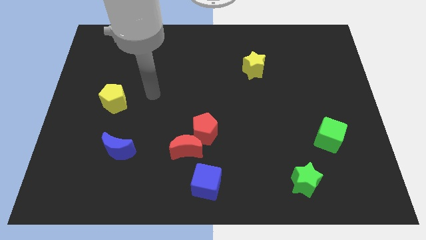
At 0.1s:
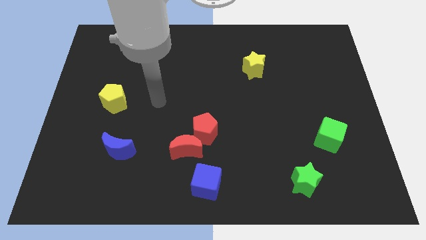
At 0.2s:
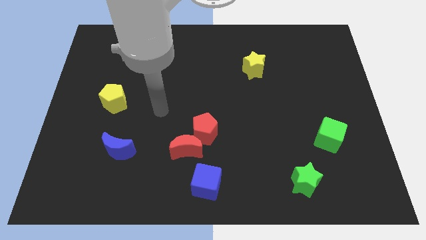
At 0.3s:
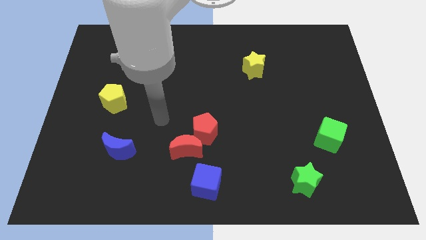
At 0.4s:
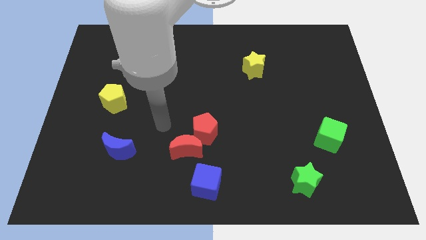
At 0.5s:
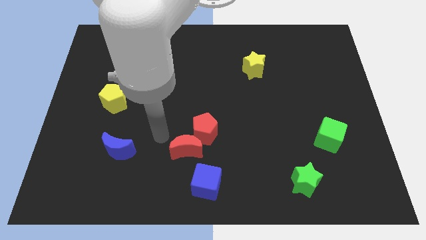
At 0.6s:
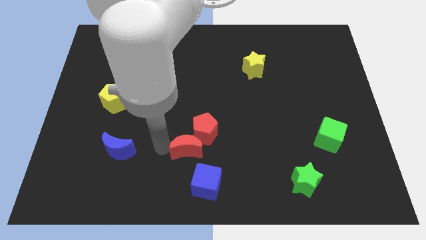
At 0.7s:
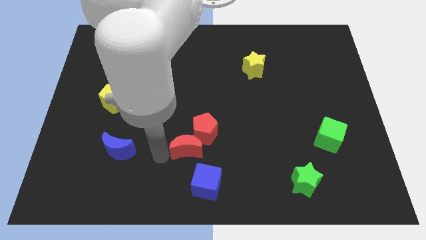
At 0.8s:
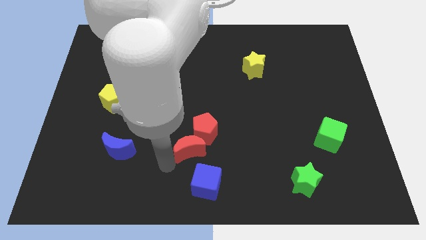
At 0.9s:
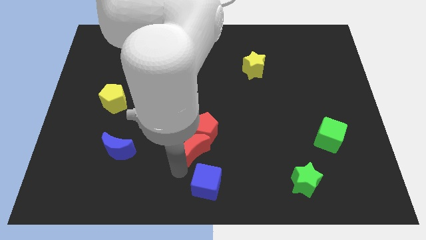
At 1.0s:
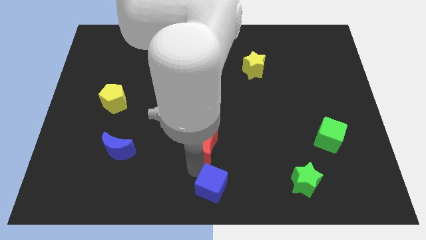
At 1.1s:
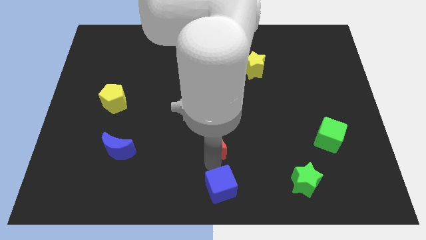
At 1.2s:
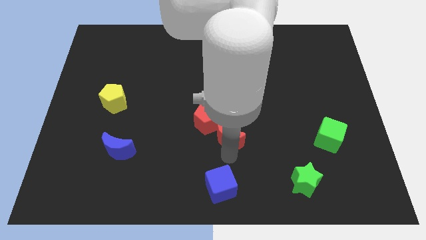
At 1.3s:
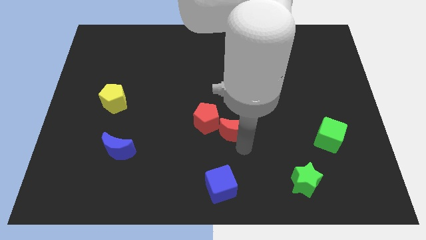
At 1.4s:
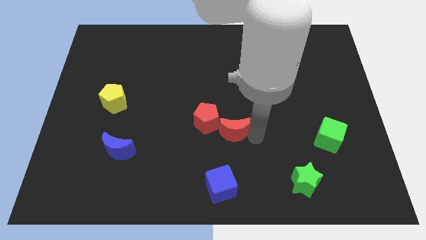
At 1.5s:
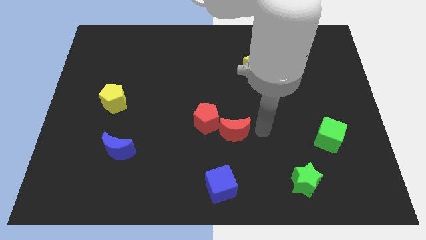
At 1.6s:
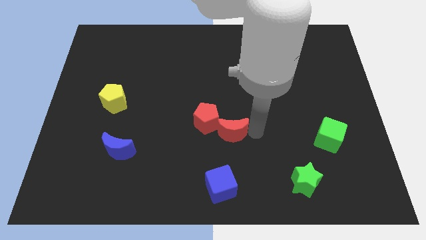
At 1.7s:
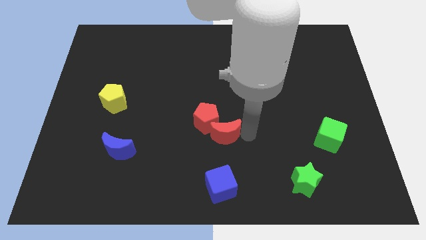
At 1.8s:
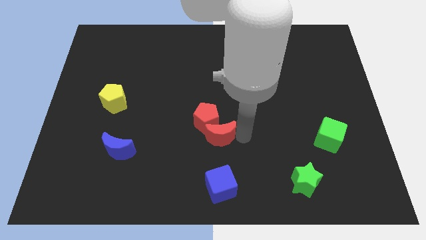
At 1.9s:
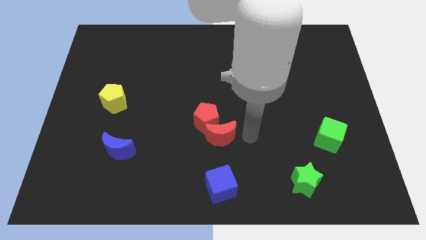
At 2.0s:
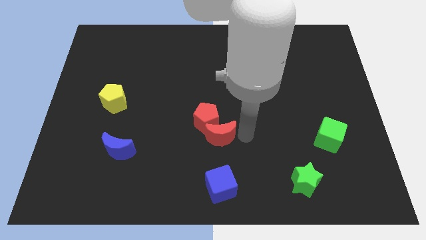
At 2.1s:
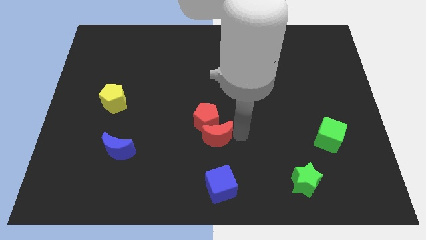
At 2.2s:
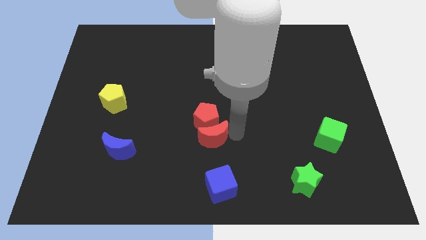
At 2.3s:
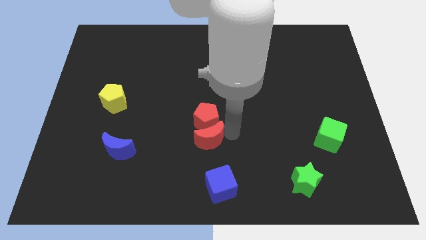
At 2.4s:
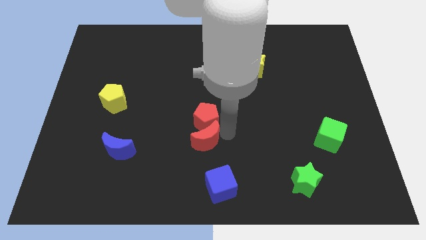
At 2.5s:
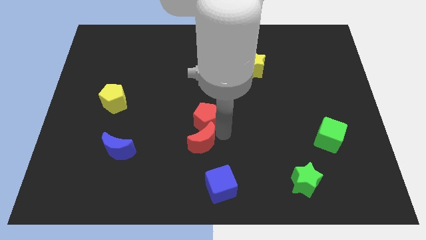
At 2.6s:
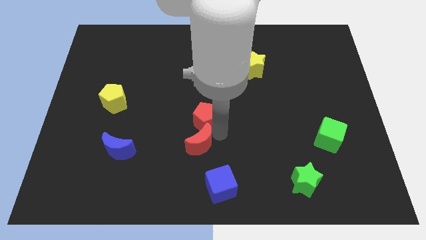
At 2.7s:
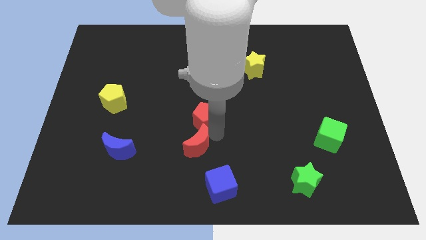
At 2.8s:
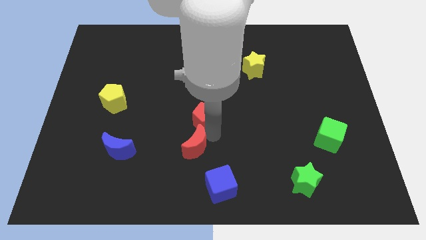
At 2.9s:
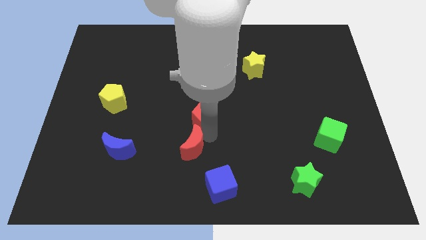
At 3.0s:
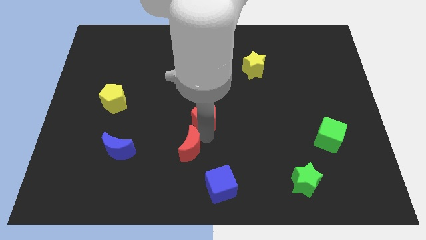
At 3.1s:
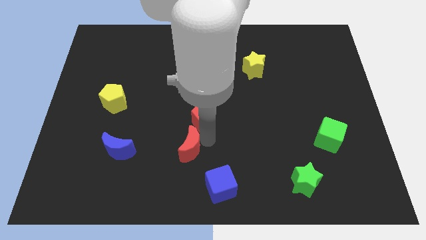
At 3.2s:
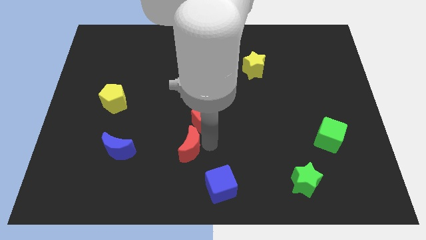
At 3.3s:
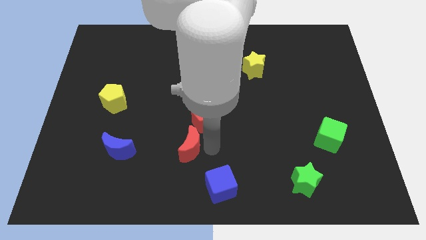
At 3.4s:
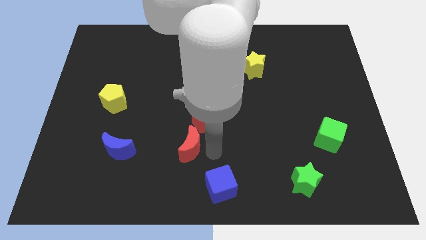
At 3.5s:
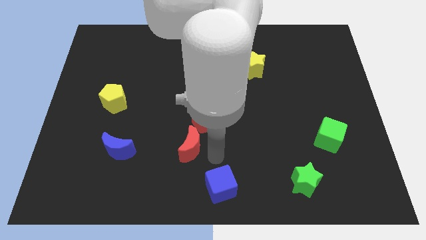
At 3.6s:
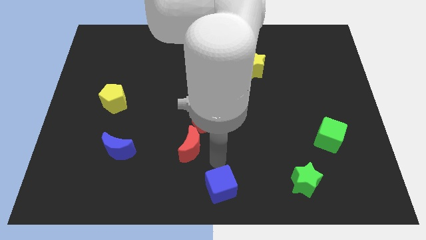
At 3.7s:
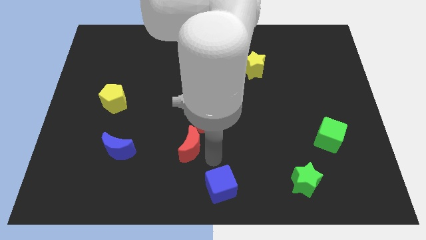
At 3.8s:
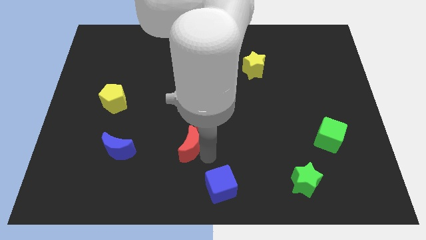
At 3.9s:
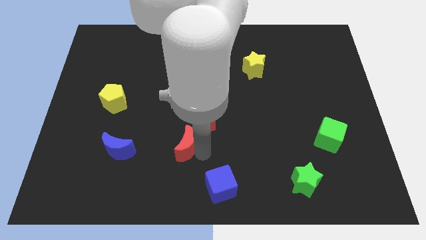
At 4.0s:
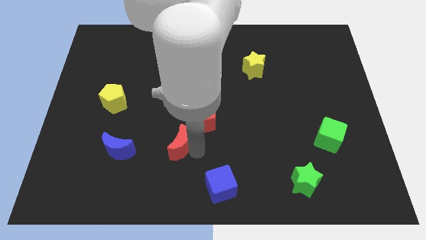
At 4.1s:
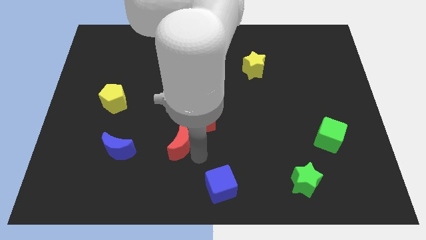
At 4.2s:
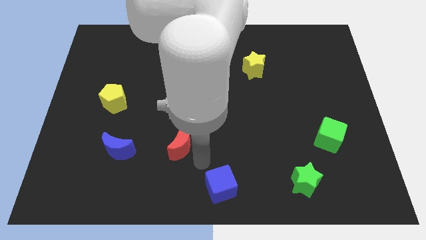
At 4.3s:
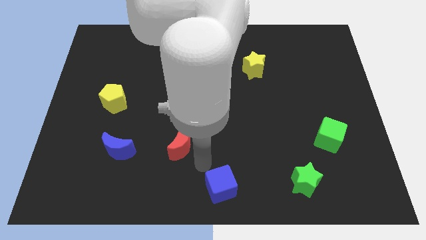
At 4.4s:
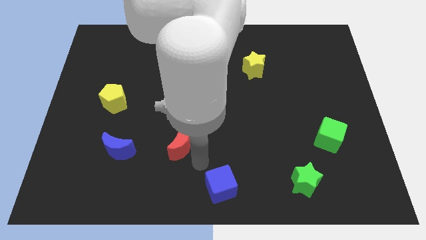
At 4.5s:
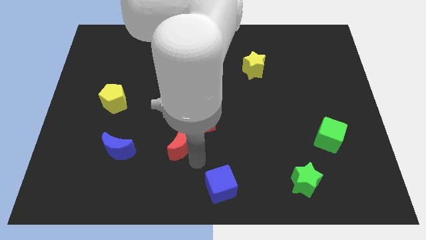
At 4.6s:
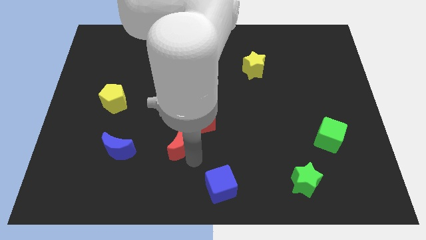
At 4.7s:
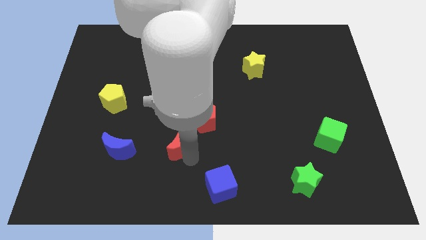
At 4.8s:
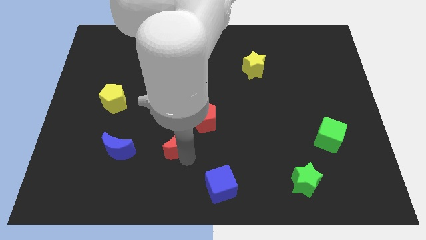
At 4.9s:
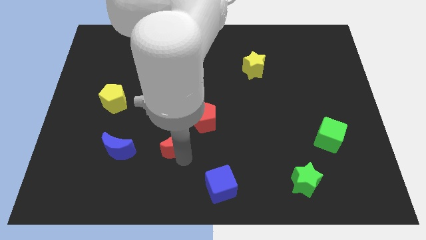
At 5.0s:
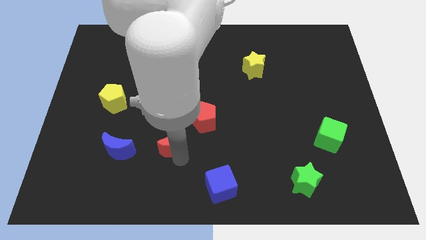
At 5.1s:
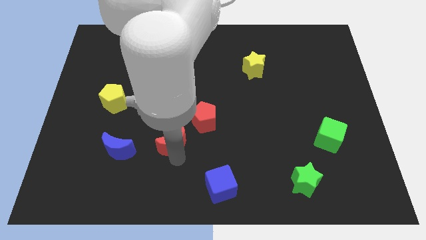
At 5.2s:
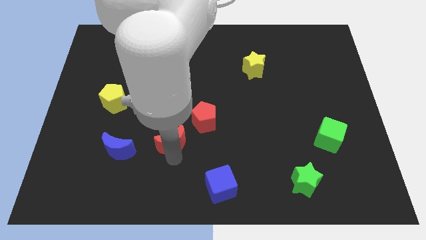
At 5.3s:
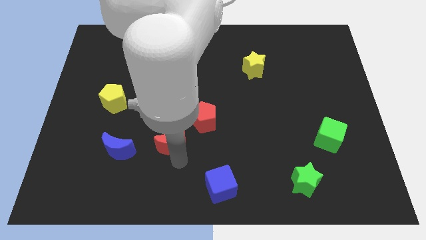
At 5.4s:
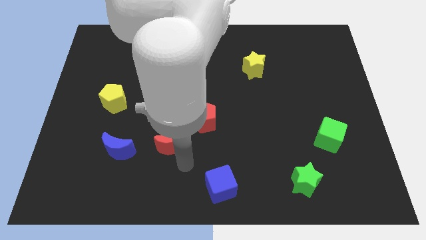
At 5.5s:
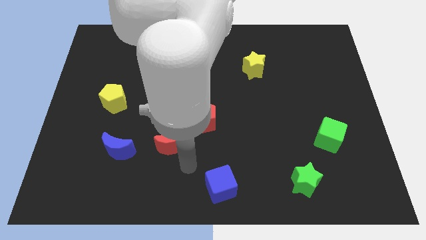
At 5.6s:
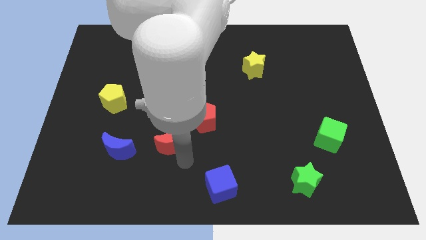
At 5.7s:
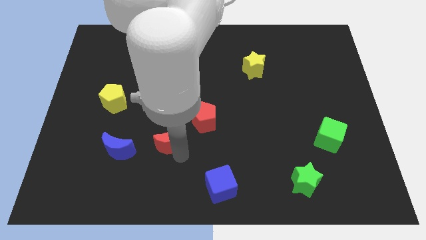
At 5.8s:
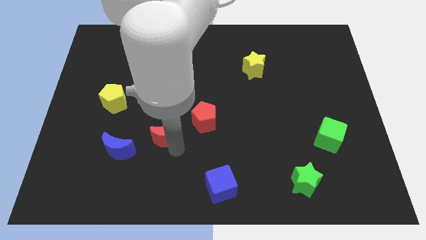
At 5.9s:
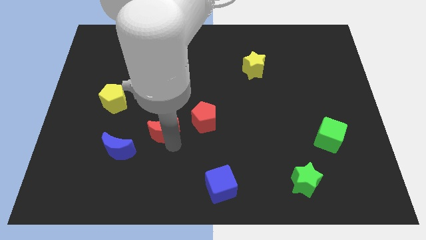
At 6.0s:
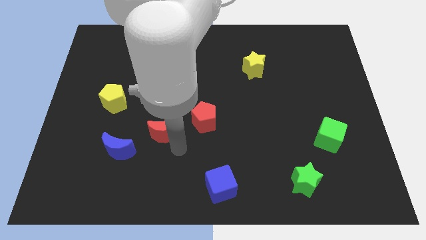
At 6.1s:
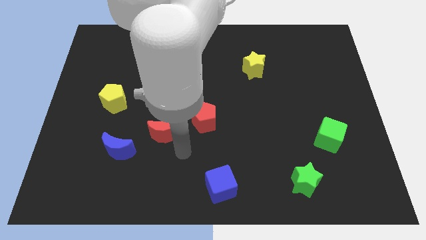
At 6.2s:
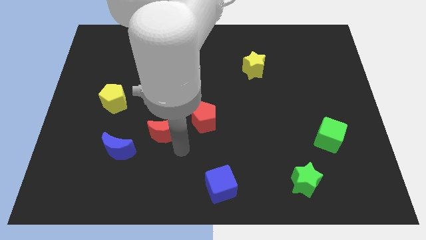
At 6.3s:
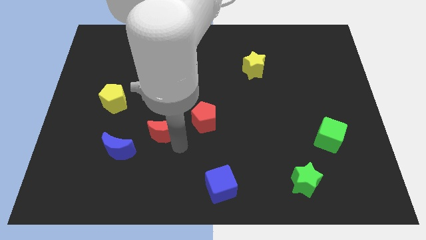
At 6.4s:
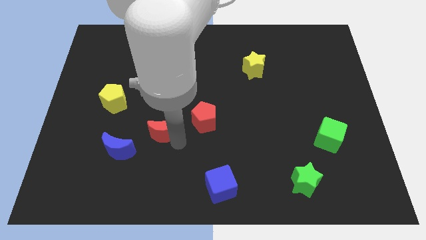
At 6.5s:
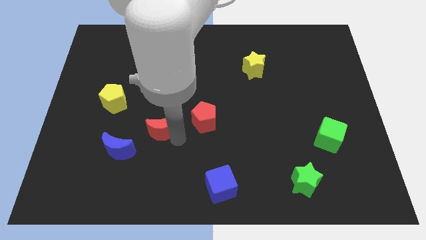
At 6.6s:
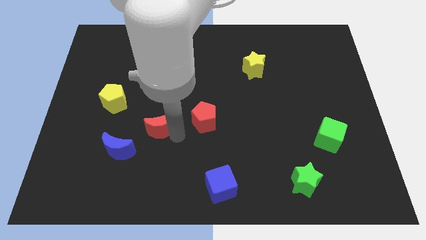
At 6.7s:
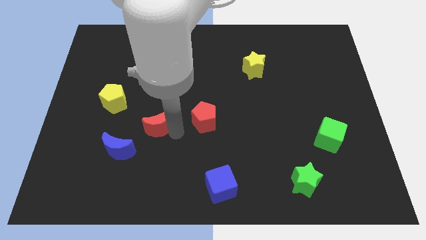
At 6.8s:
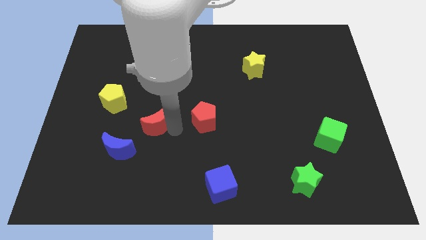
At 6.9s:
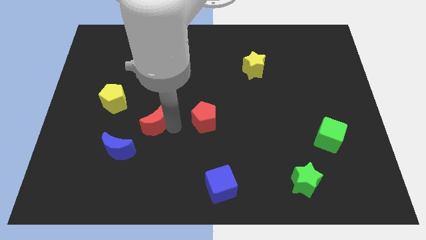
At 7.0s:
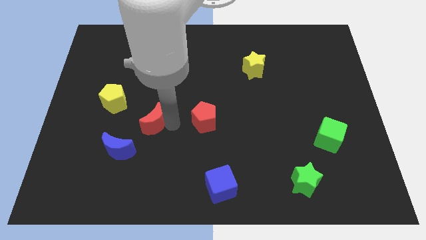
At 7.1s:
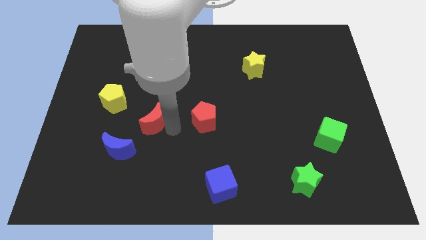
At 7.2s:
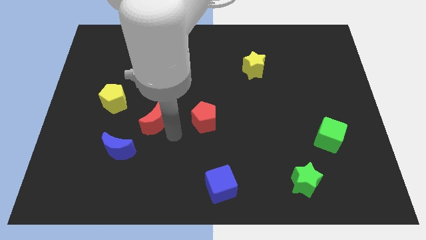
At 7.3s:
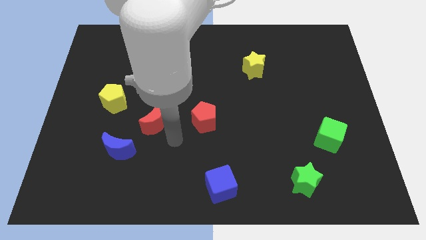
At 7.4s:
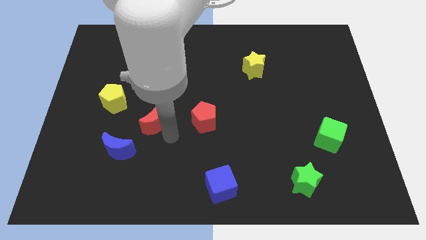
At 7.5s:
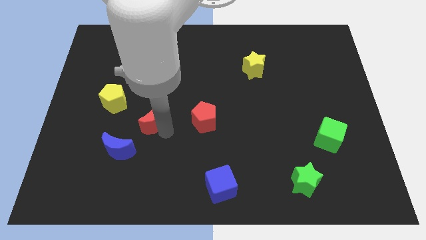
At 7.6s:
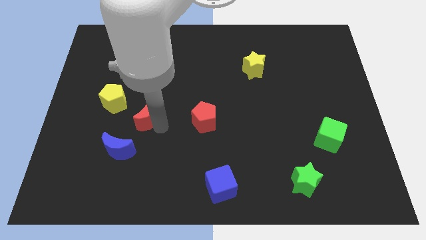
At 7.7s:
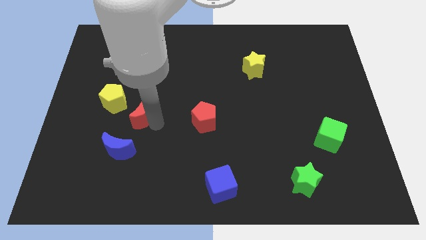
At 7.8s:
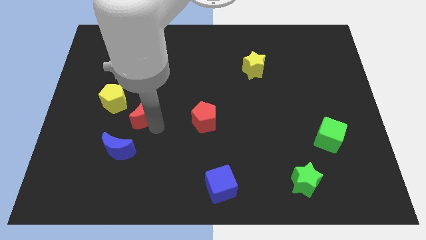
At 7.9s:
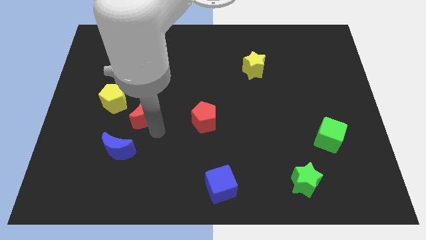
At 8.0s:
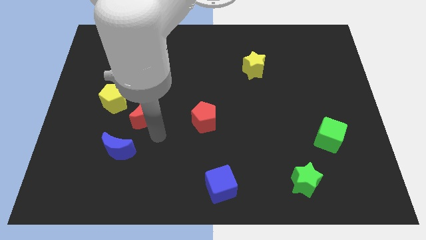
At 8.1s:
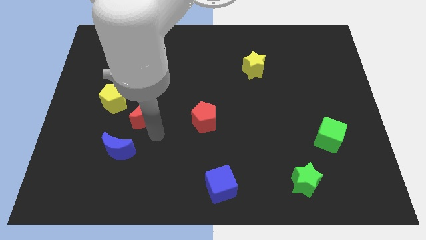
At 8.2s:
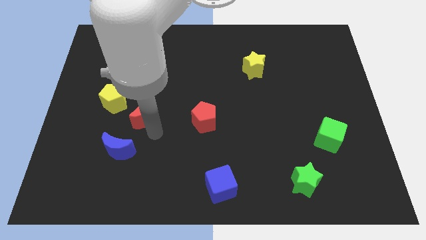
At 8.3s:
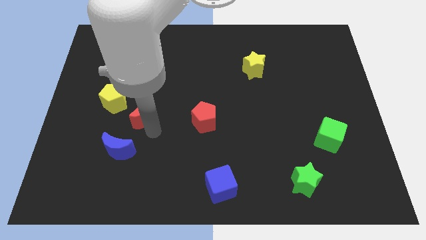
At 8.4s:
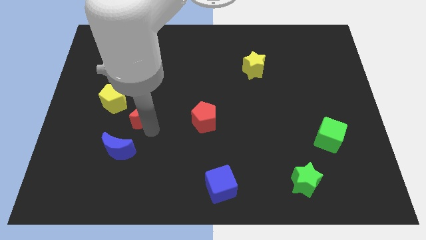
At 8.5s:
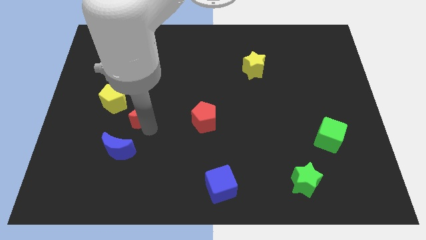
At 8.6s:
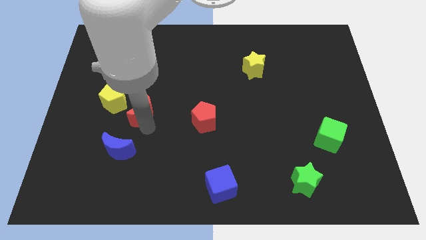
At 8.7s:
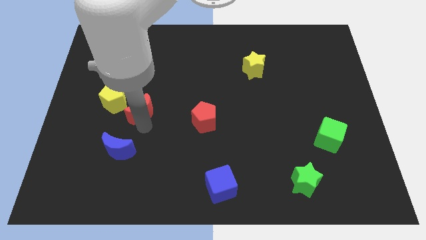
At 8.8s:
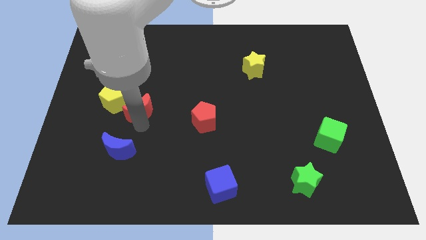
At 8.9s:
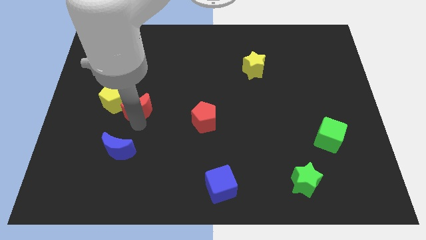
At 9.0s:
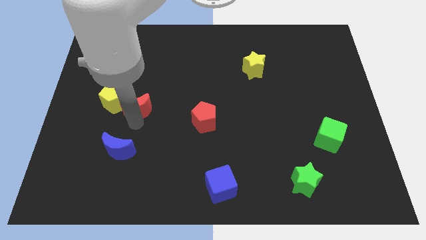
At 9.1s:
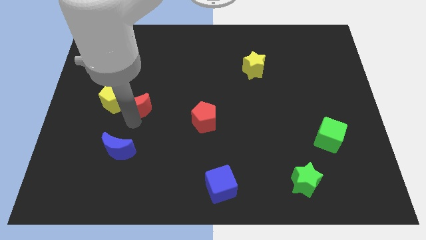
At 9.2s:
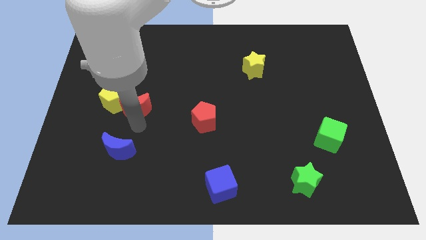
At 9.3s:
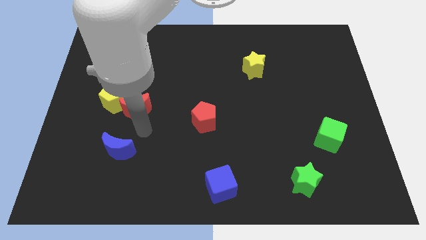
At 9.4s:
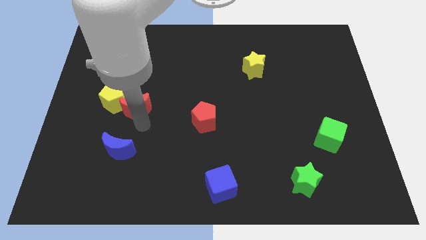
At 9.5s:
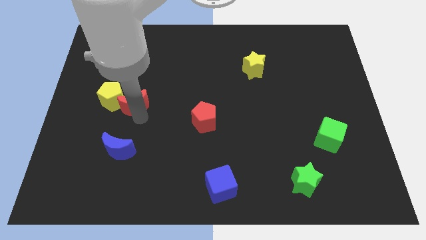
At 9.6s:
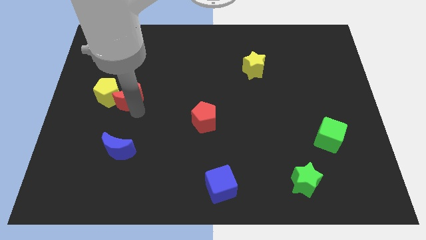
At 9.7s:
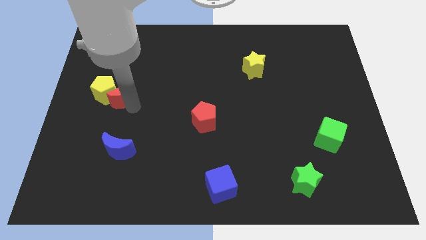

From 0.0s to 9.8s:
move the red moon up and to the left diagonally
